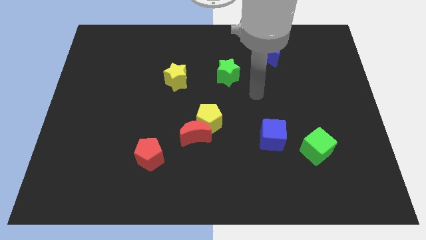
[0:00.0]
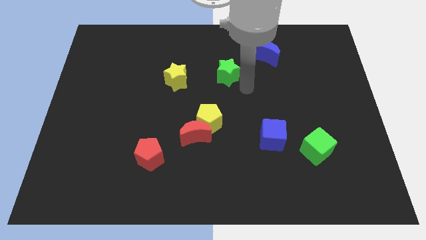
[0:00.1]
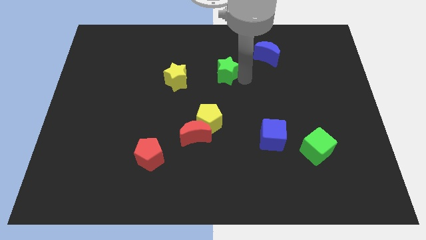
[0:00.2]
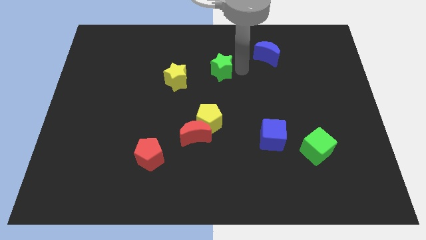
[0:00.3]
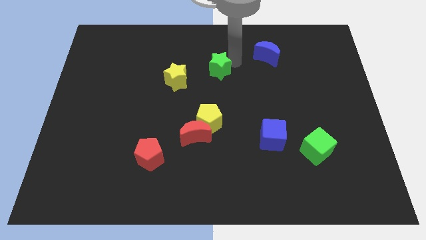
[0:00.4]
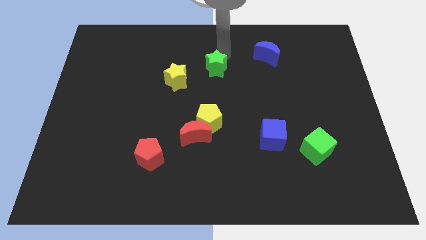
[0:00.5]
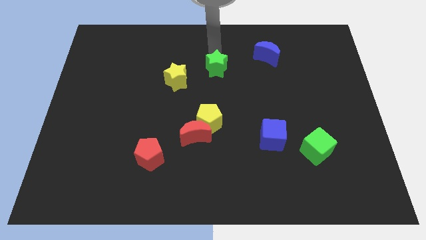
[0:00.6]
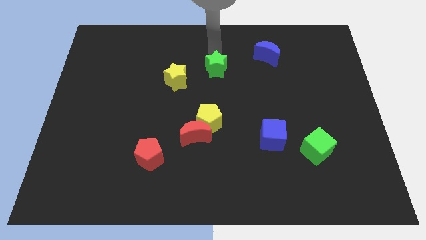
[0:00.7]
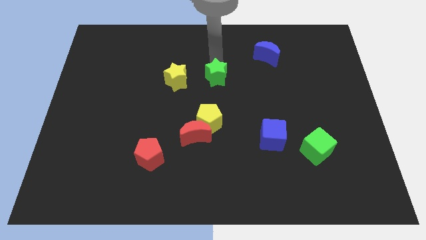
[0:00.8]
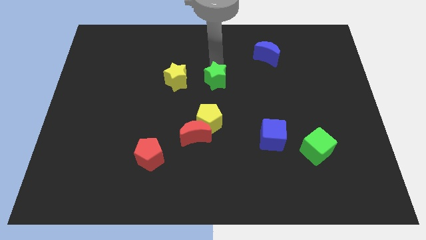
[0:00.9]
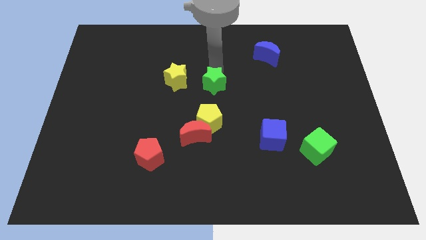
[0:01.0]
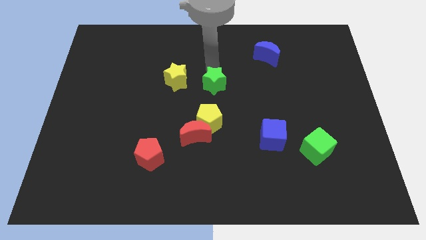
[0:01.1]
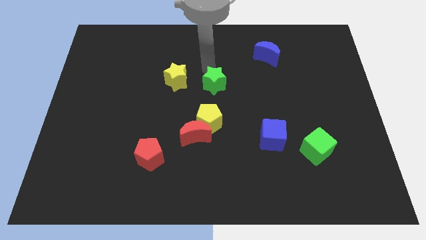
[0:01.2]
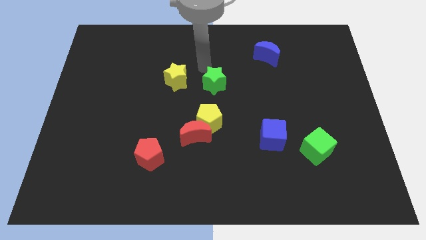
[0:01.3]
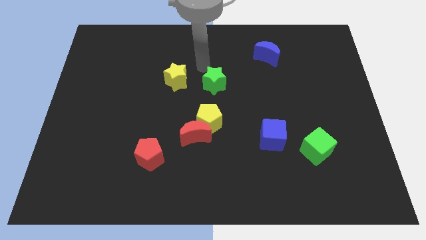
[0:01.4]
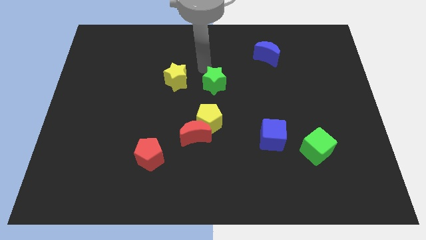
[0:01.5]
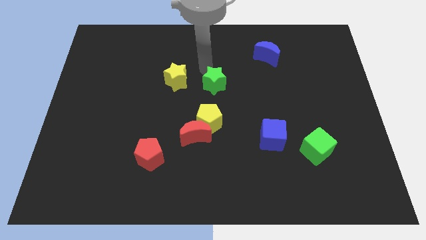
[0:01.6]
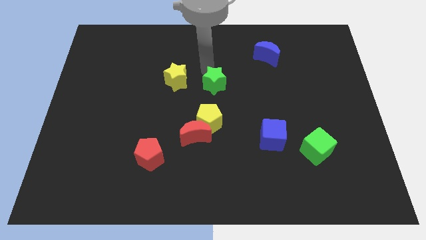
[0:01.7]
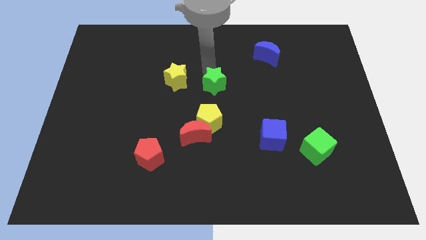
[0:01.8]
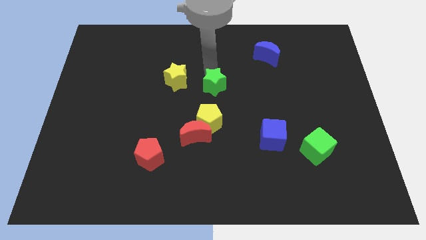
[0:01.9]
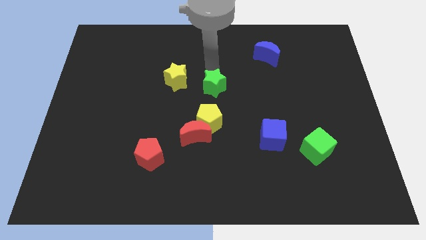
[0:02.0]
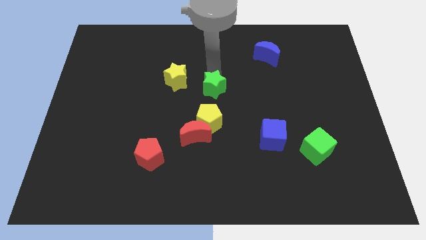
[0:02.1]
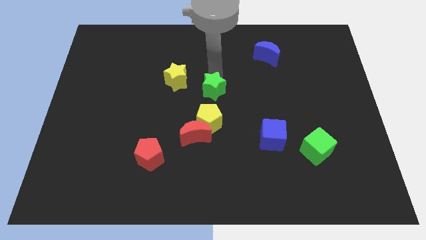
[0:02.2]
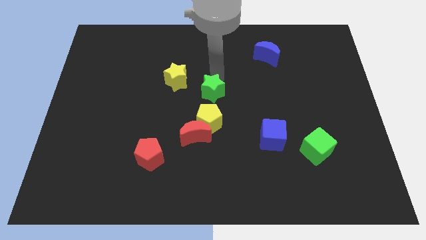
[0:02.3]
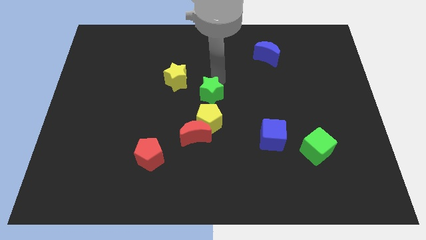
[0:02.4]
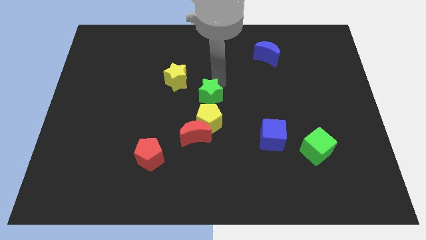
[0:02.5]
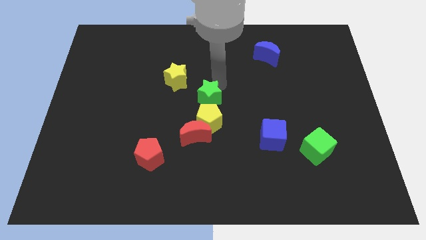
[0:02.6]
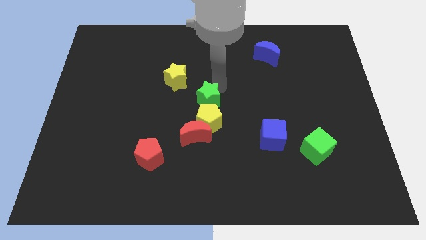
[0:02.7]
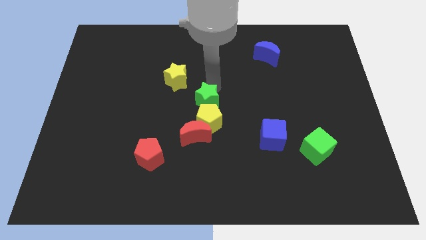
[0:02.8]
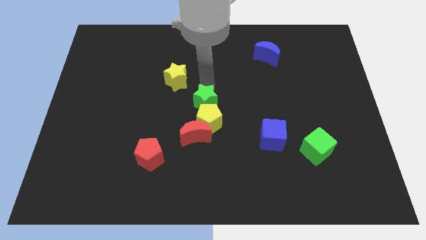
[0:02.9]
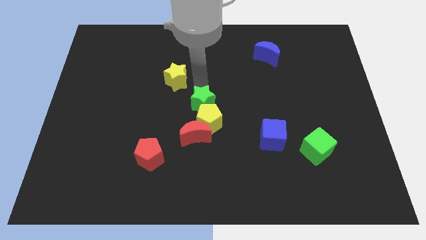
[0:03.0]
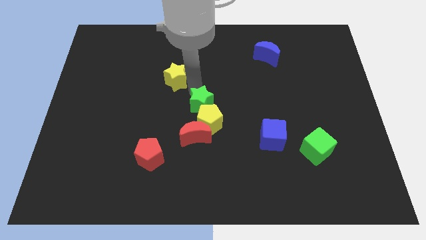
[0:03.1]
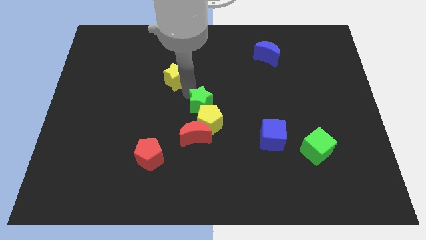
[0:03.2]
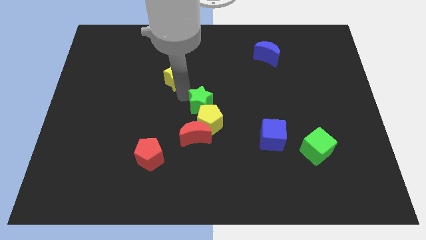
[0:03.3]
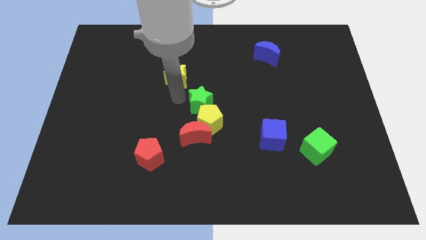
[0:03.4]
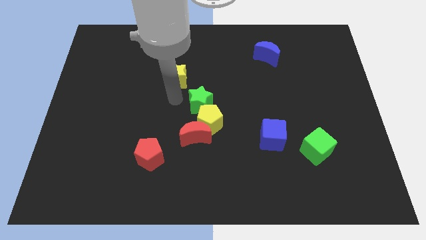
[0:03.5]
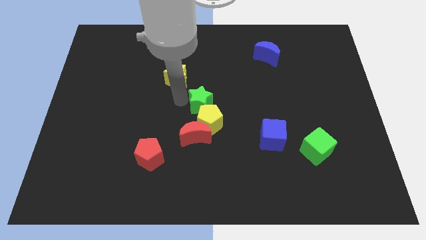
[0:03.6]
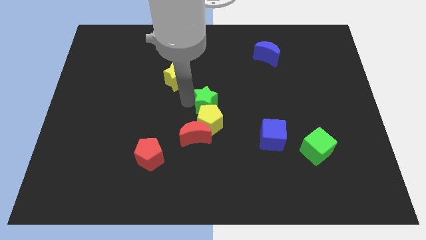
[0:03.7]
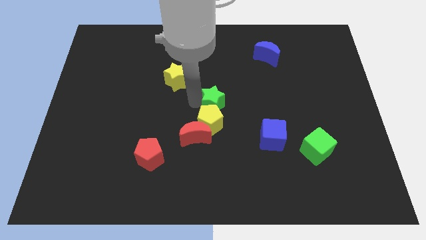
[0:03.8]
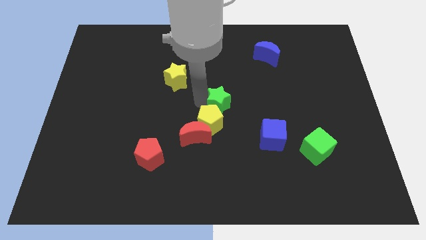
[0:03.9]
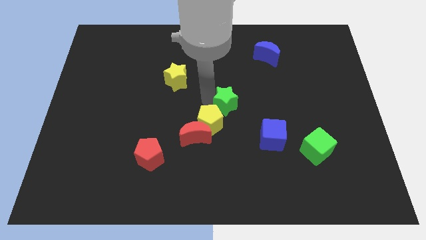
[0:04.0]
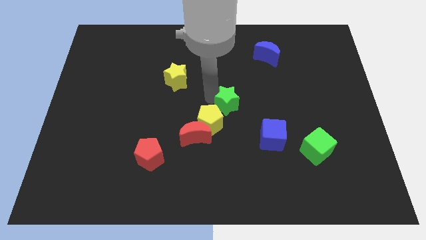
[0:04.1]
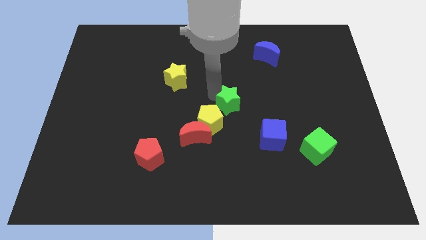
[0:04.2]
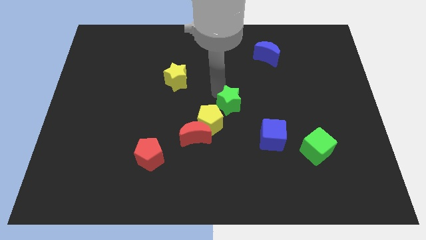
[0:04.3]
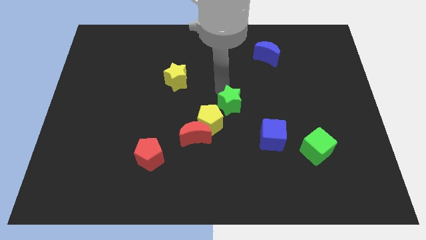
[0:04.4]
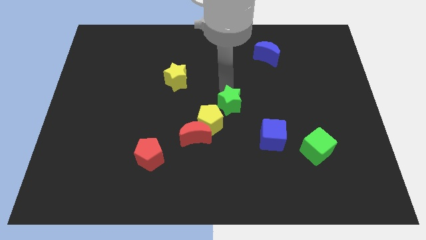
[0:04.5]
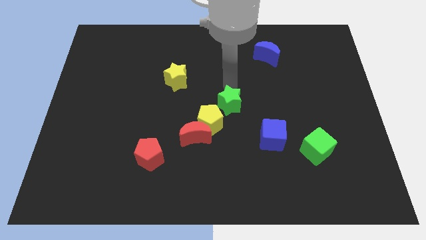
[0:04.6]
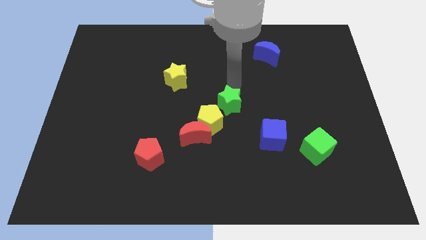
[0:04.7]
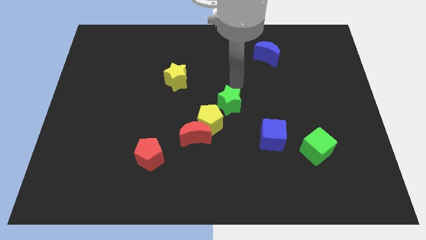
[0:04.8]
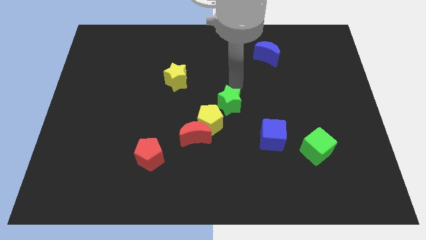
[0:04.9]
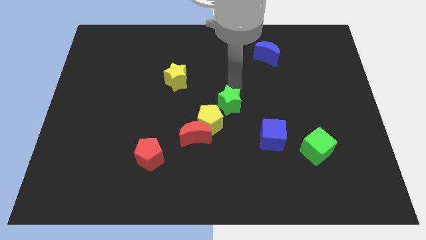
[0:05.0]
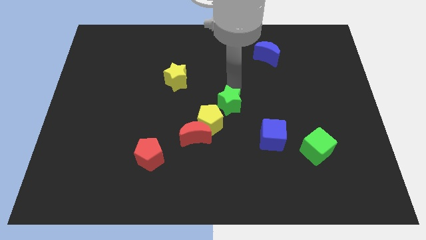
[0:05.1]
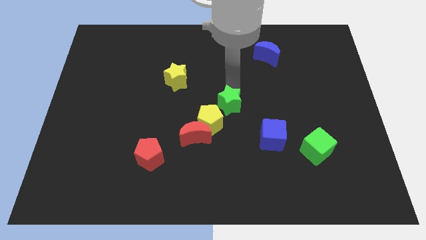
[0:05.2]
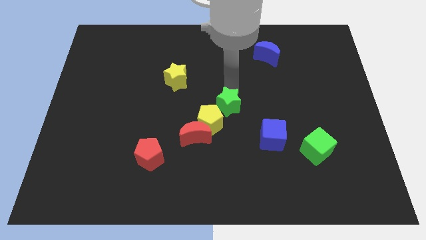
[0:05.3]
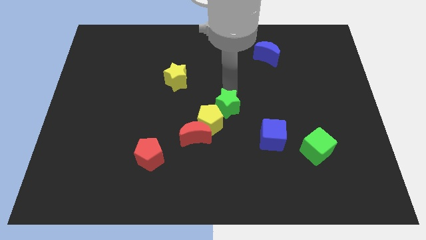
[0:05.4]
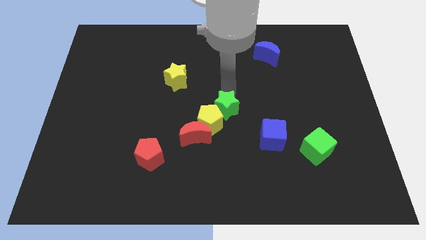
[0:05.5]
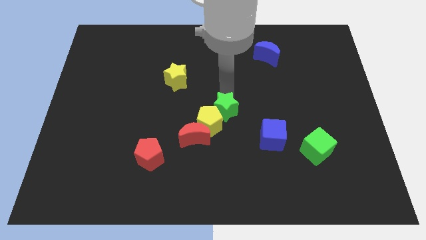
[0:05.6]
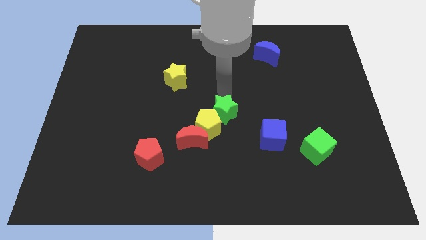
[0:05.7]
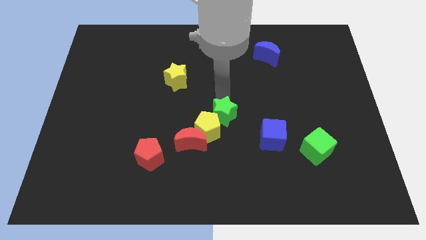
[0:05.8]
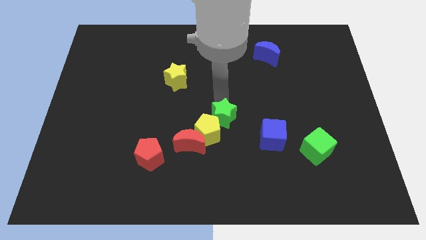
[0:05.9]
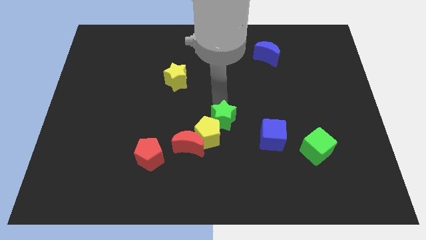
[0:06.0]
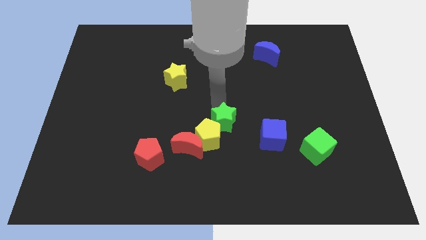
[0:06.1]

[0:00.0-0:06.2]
put the green star to the left of the blue cube

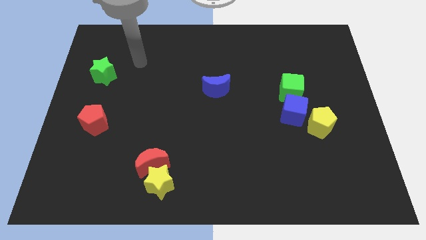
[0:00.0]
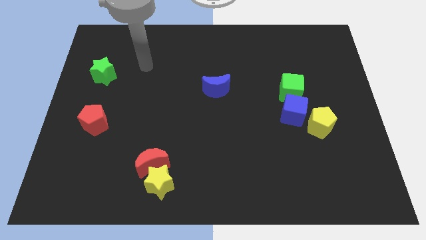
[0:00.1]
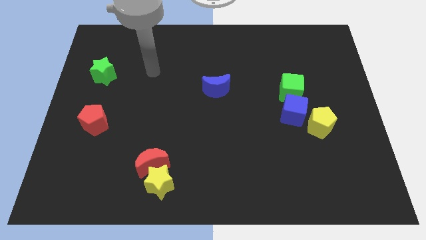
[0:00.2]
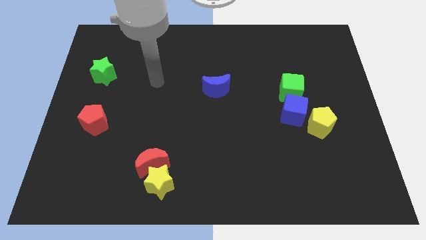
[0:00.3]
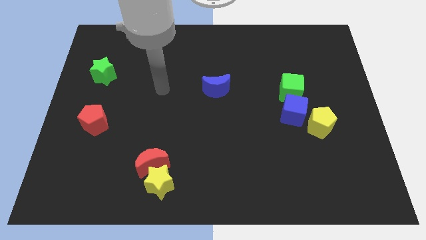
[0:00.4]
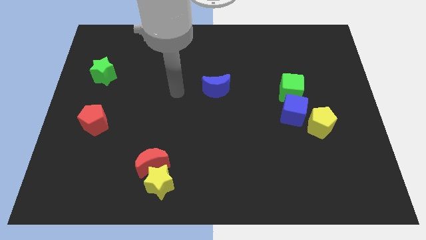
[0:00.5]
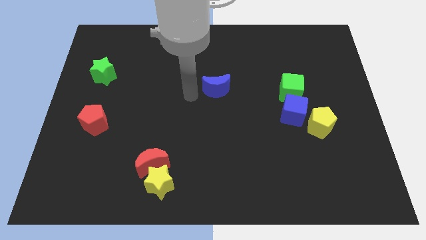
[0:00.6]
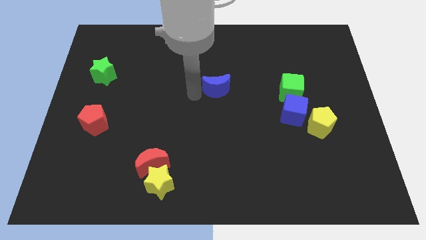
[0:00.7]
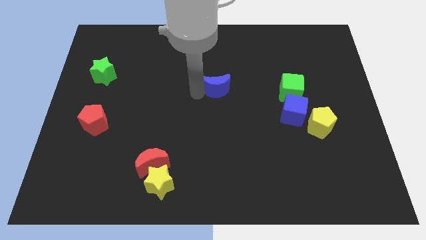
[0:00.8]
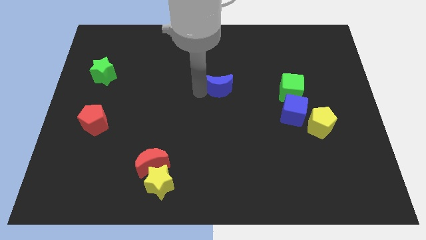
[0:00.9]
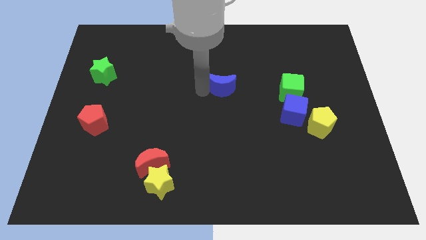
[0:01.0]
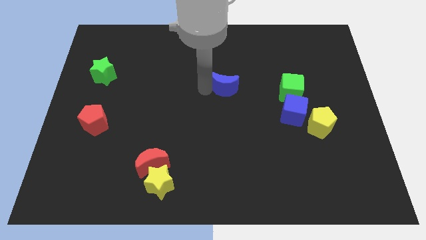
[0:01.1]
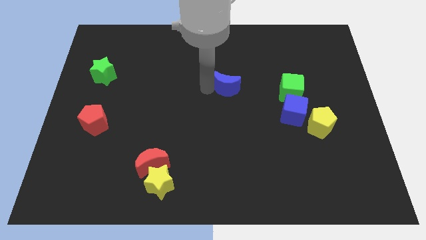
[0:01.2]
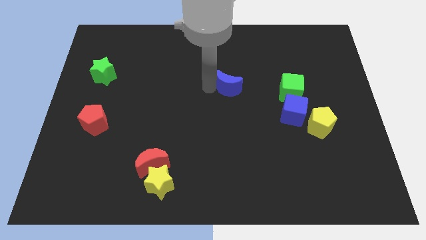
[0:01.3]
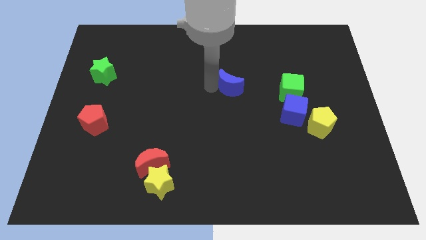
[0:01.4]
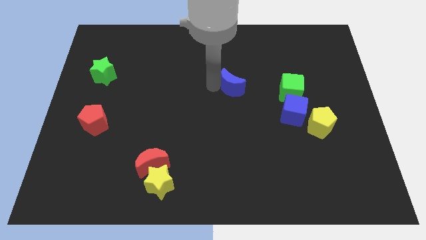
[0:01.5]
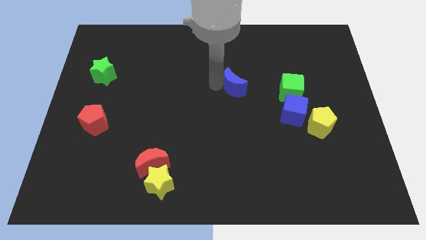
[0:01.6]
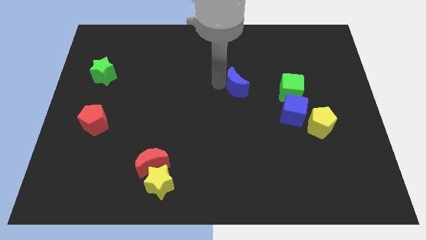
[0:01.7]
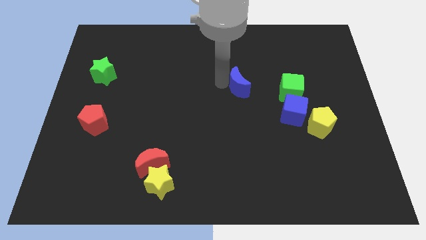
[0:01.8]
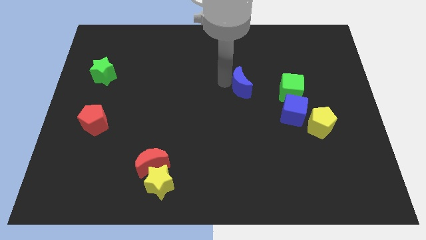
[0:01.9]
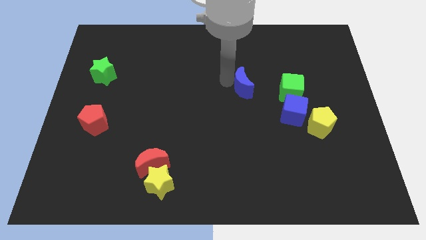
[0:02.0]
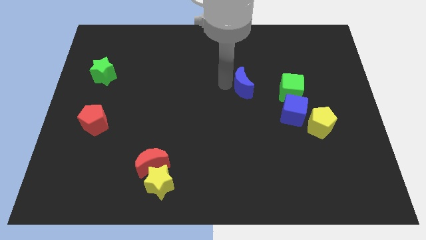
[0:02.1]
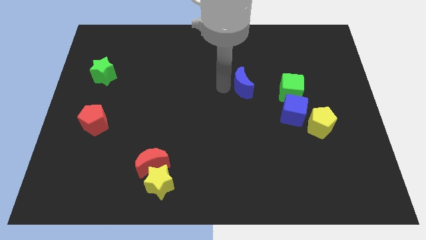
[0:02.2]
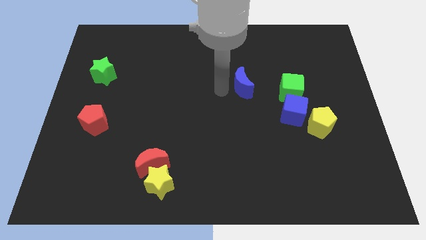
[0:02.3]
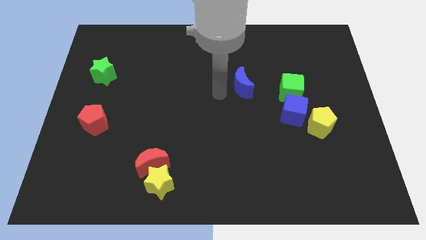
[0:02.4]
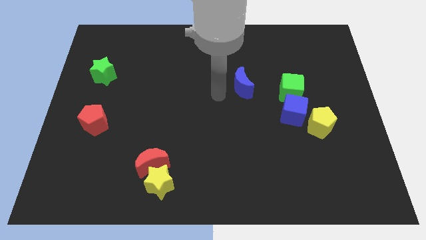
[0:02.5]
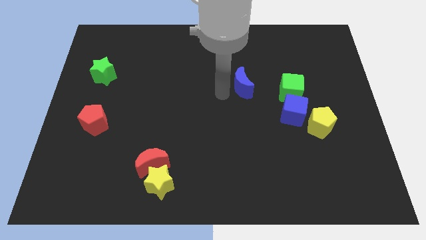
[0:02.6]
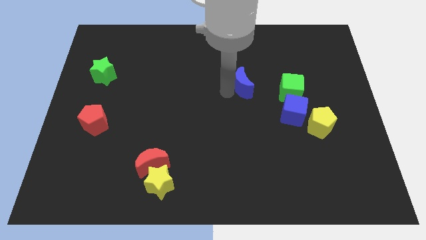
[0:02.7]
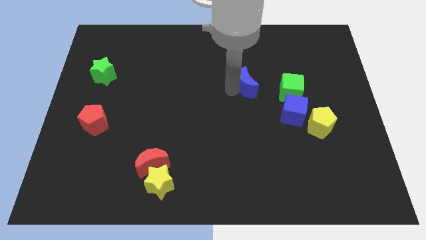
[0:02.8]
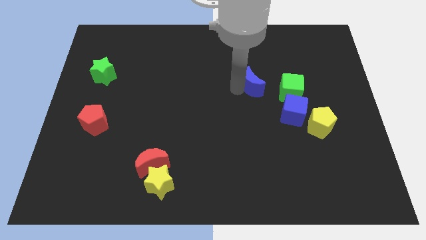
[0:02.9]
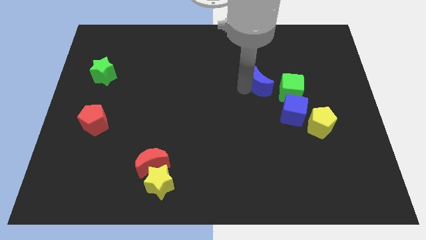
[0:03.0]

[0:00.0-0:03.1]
push the blue moon diagonally up and to the left of the green cube
